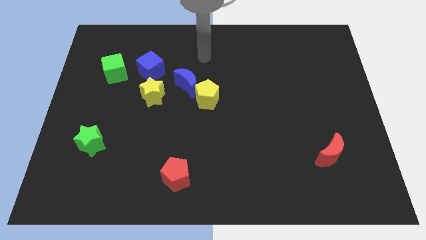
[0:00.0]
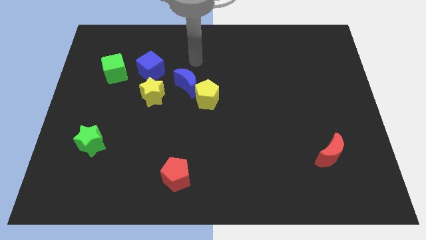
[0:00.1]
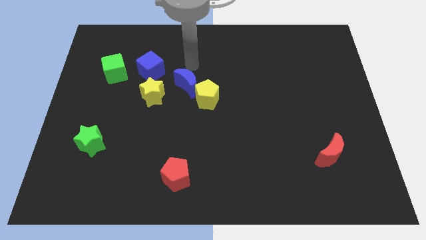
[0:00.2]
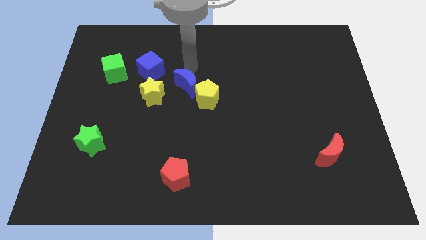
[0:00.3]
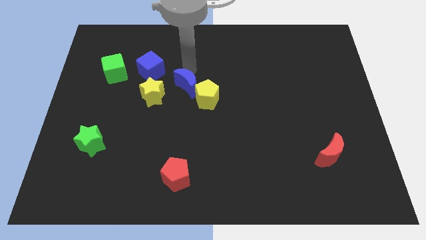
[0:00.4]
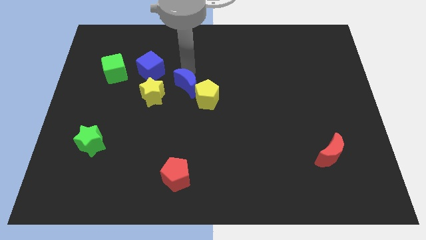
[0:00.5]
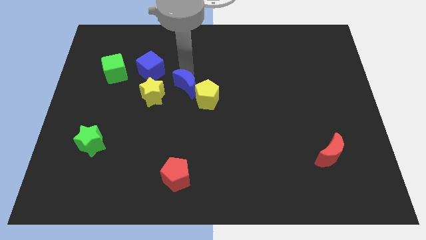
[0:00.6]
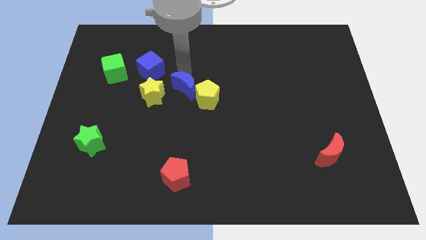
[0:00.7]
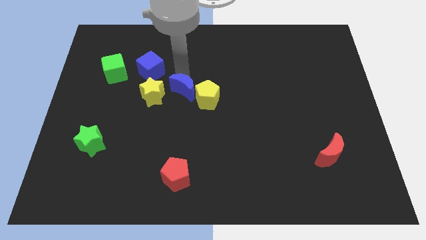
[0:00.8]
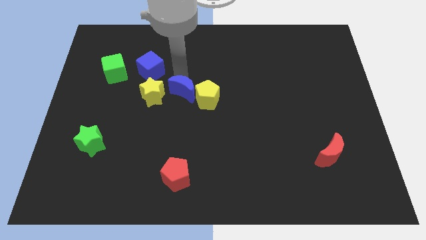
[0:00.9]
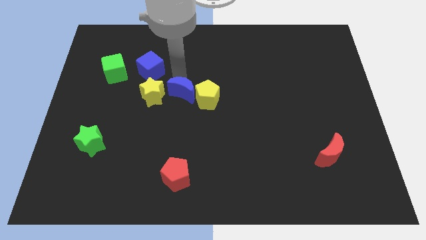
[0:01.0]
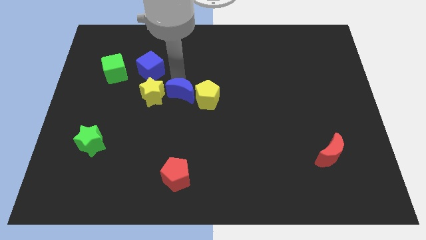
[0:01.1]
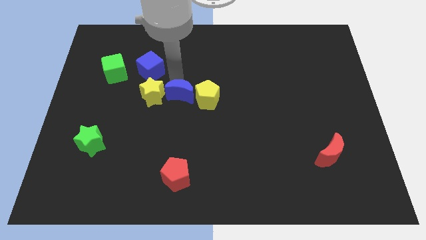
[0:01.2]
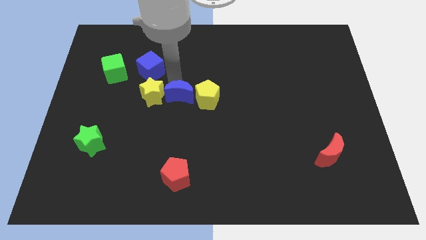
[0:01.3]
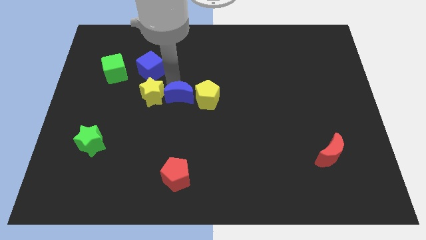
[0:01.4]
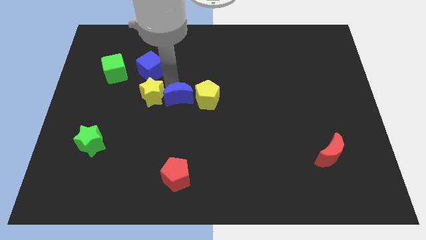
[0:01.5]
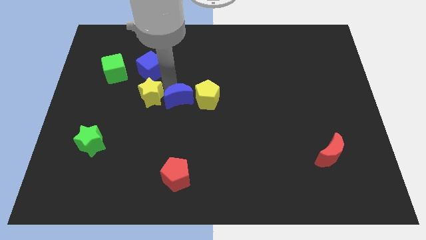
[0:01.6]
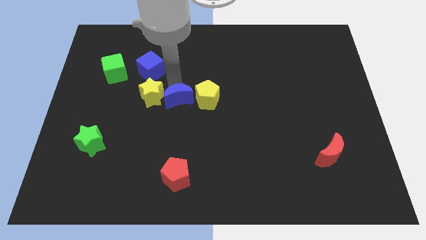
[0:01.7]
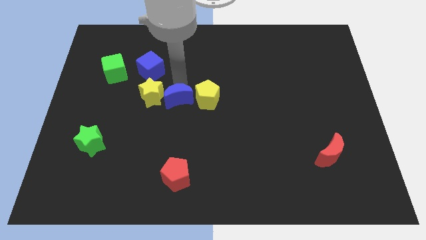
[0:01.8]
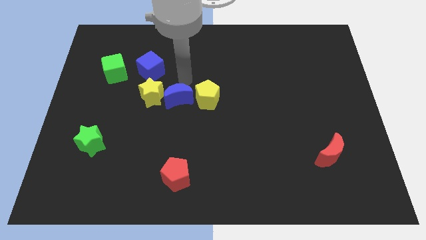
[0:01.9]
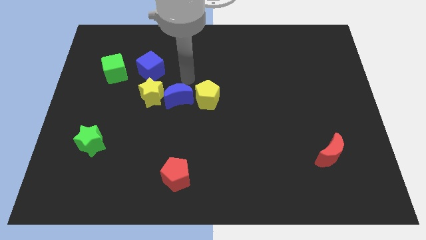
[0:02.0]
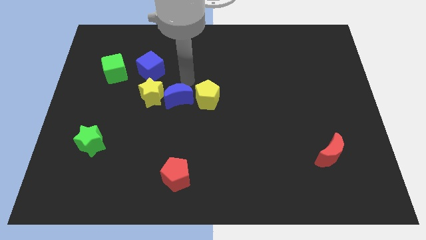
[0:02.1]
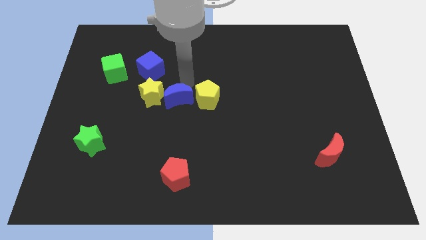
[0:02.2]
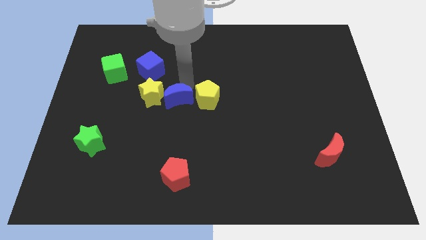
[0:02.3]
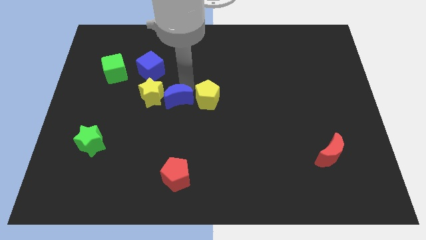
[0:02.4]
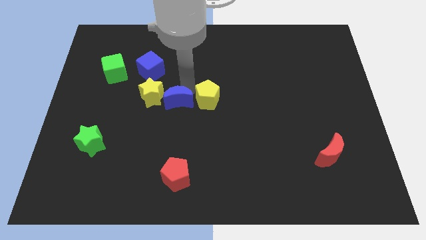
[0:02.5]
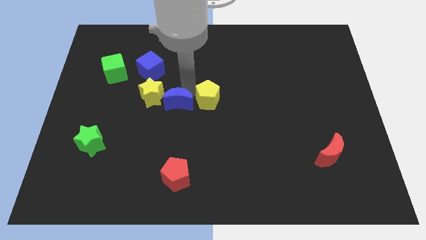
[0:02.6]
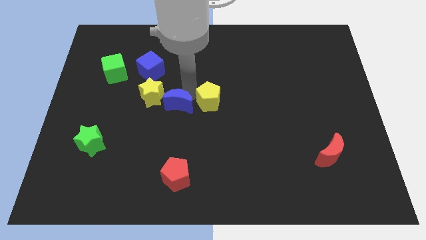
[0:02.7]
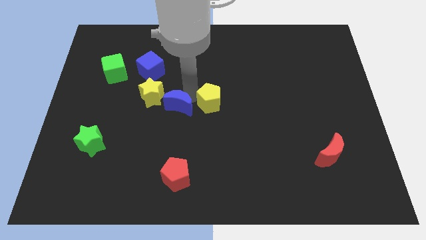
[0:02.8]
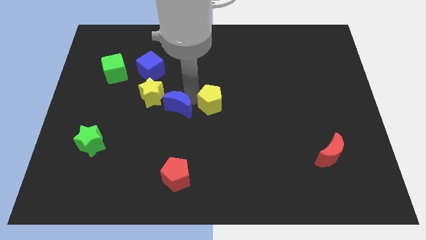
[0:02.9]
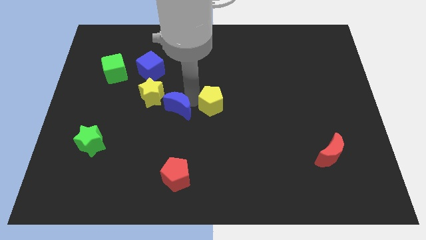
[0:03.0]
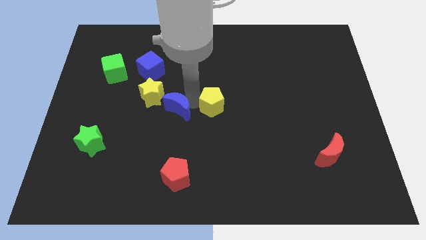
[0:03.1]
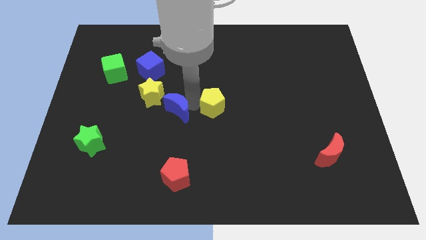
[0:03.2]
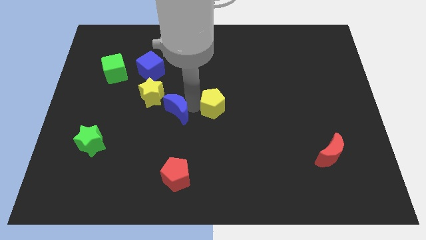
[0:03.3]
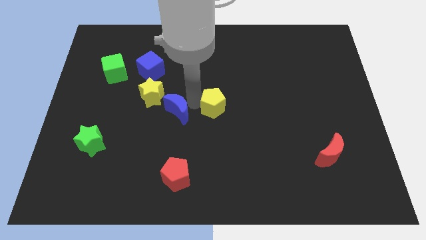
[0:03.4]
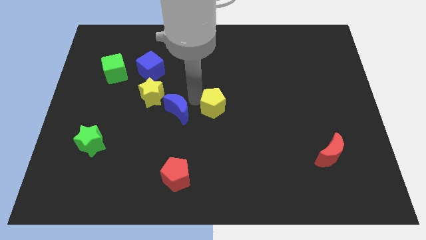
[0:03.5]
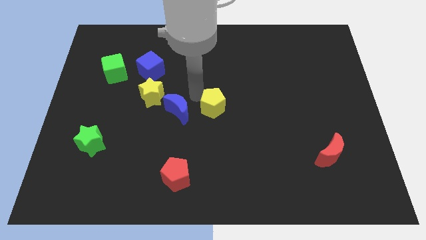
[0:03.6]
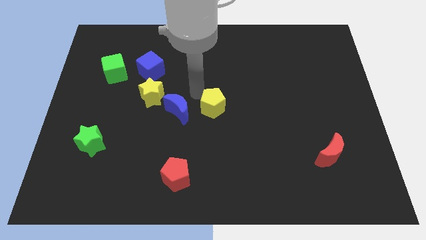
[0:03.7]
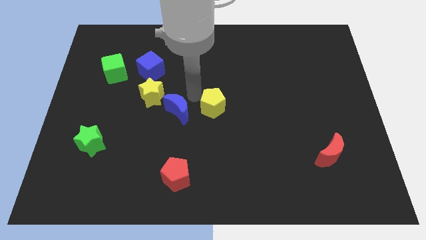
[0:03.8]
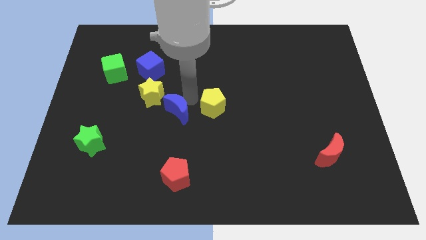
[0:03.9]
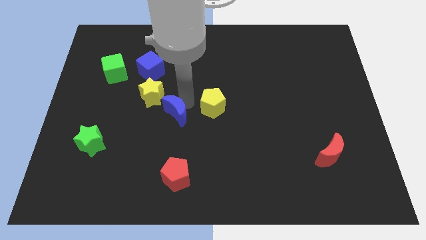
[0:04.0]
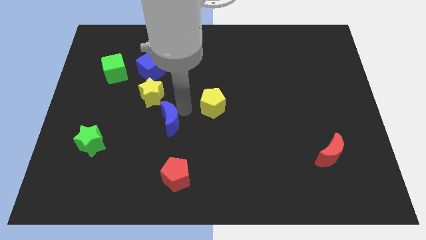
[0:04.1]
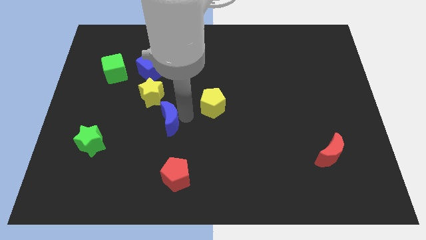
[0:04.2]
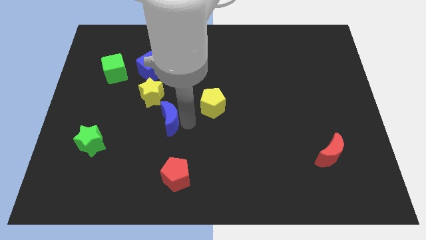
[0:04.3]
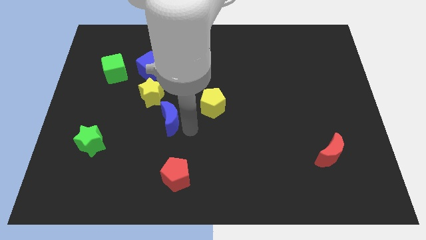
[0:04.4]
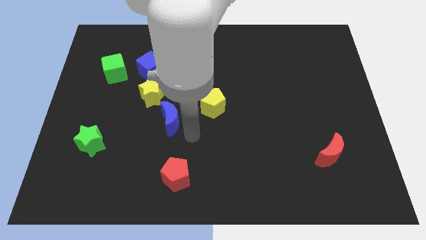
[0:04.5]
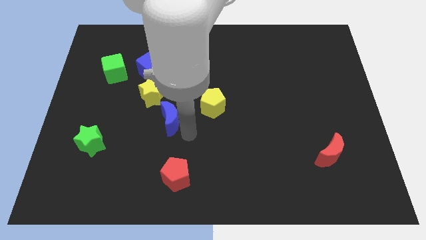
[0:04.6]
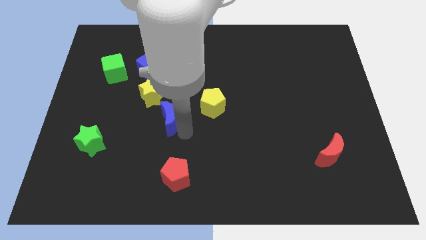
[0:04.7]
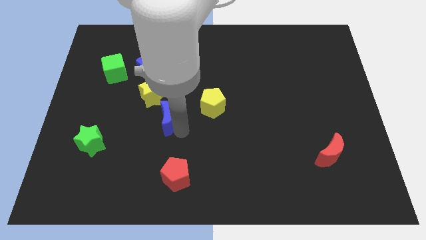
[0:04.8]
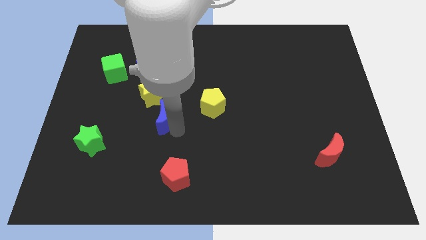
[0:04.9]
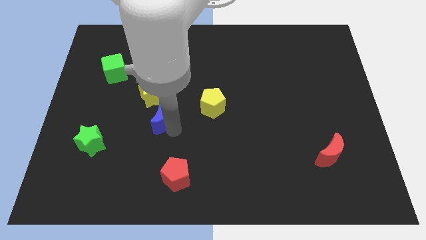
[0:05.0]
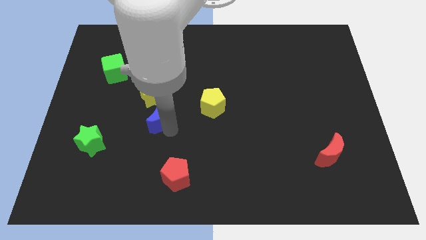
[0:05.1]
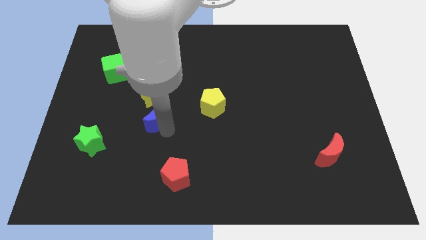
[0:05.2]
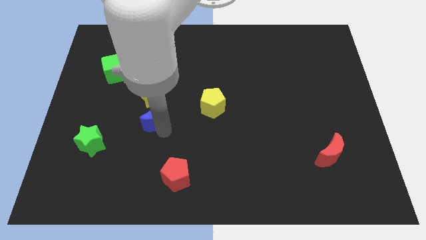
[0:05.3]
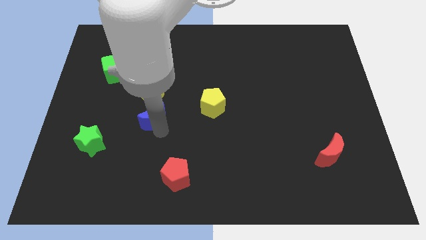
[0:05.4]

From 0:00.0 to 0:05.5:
slide the blue moon to the bottom side of the blue cube

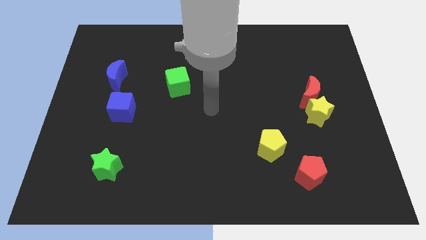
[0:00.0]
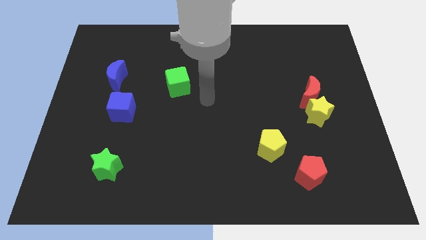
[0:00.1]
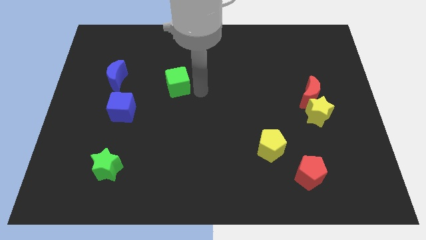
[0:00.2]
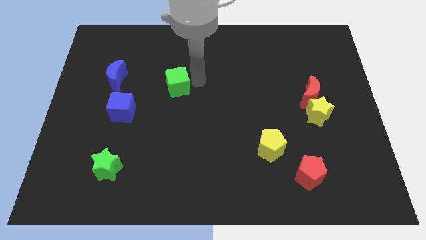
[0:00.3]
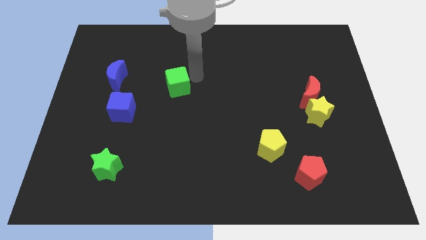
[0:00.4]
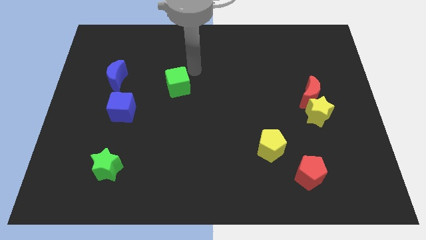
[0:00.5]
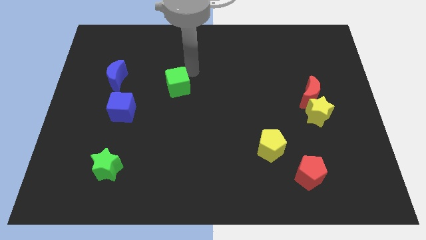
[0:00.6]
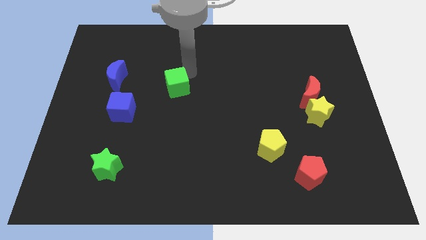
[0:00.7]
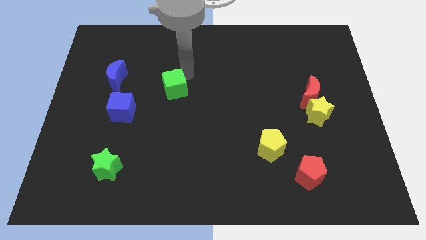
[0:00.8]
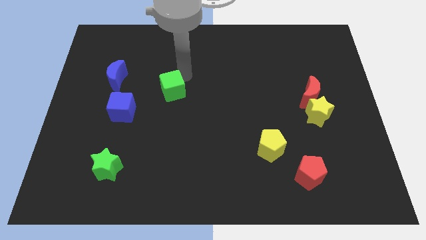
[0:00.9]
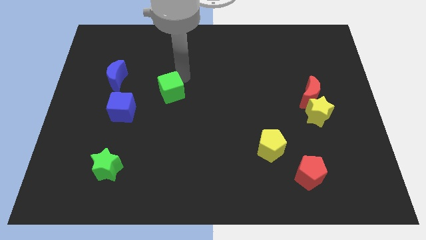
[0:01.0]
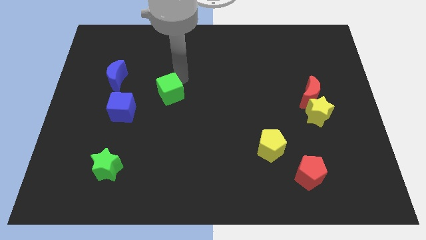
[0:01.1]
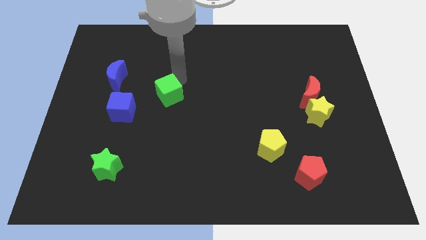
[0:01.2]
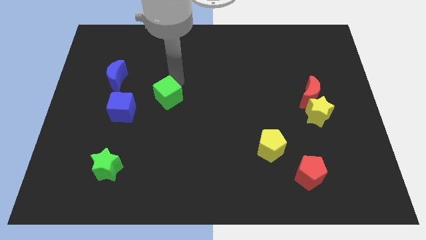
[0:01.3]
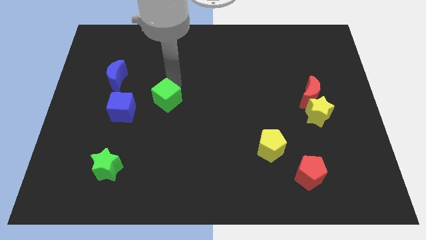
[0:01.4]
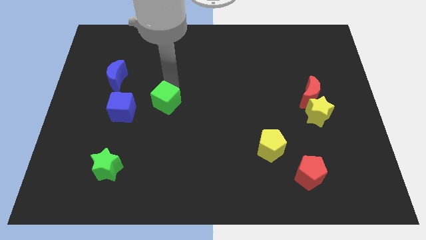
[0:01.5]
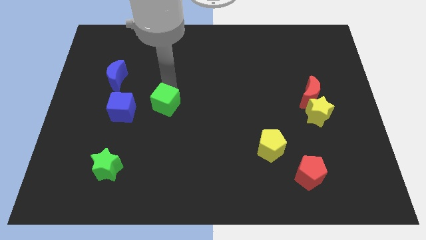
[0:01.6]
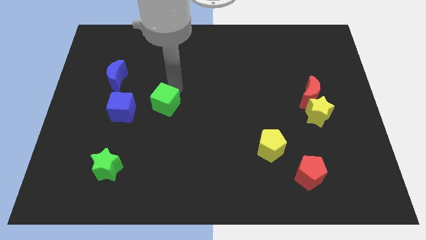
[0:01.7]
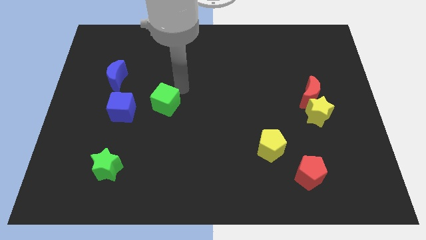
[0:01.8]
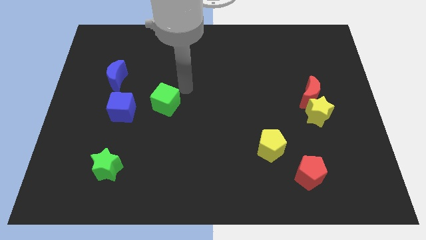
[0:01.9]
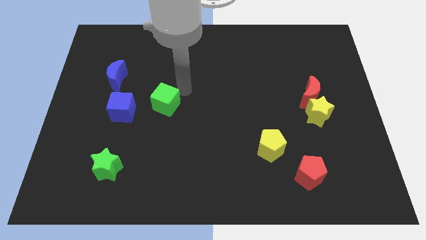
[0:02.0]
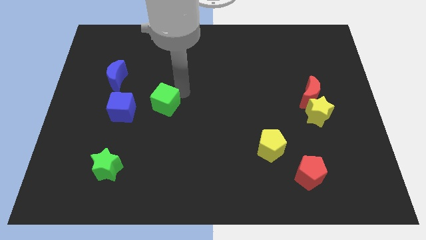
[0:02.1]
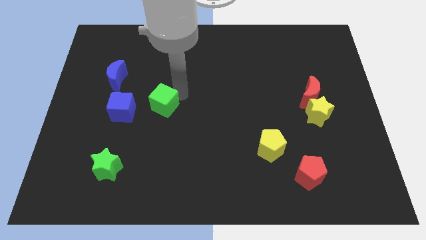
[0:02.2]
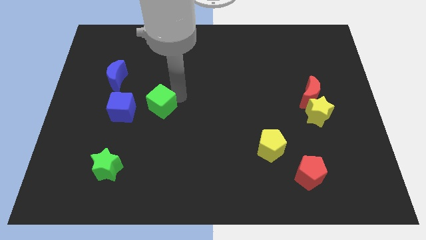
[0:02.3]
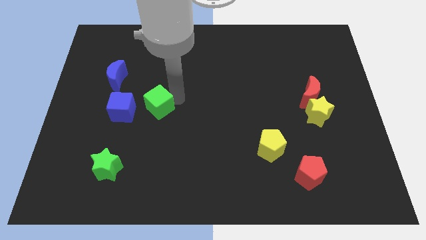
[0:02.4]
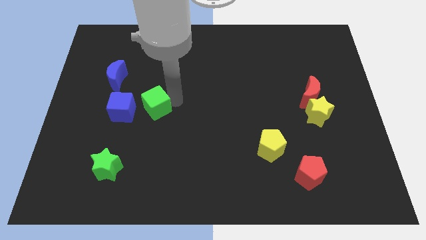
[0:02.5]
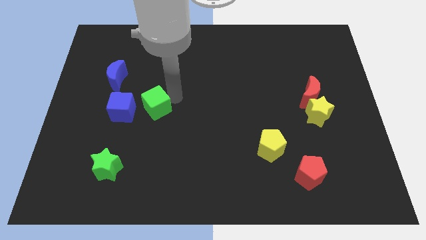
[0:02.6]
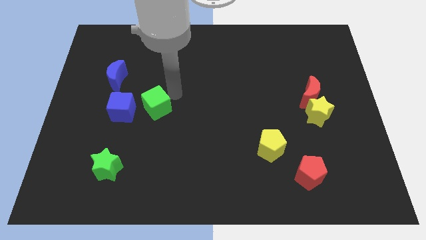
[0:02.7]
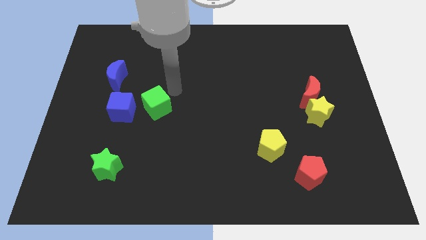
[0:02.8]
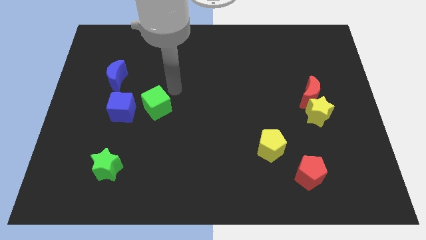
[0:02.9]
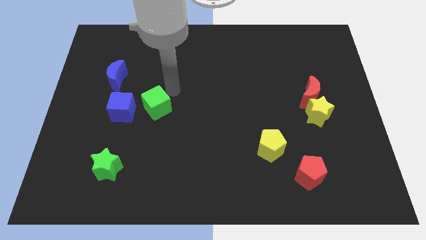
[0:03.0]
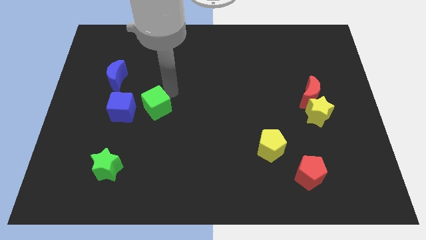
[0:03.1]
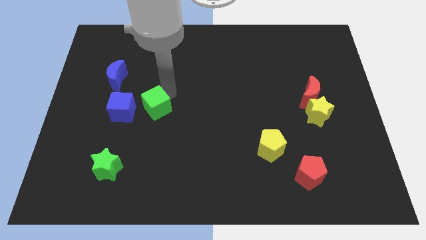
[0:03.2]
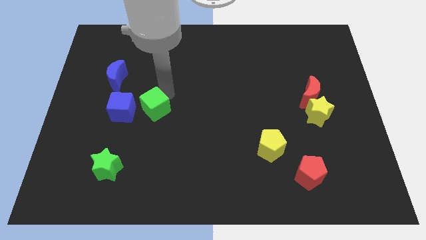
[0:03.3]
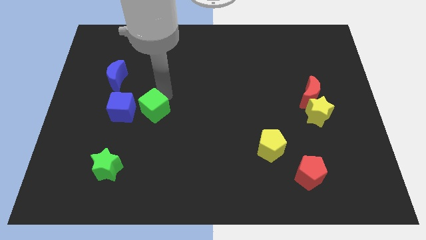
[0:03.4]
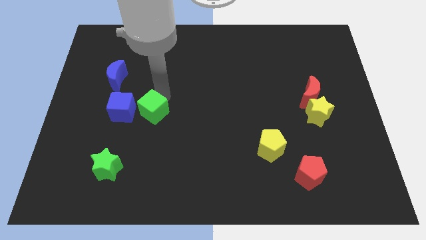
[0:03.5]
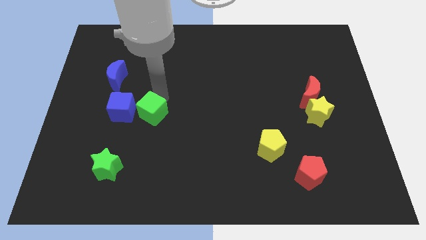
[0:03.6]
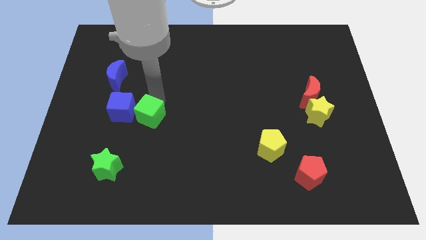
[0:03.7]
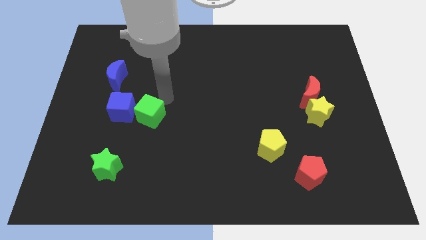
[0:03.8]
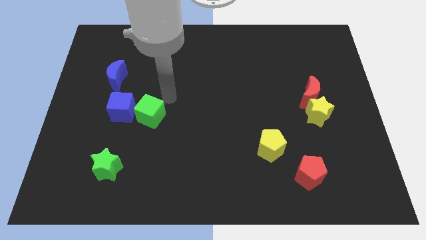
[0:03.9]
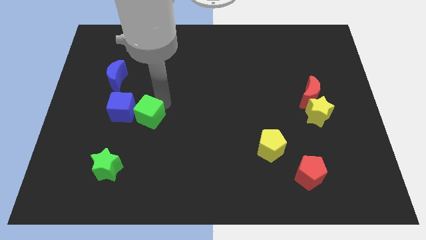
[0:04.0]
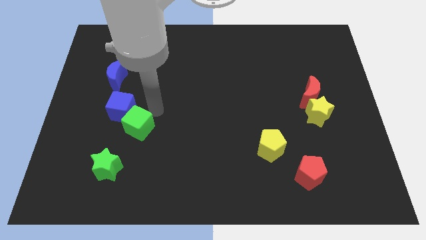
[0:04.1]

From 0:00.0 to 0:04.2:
move the green cube below the blue cube
